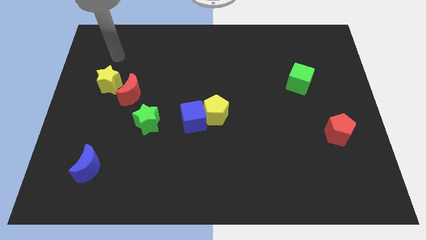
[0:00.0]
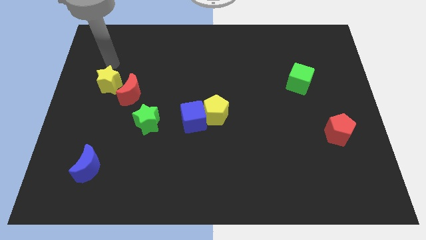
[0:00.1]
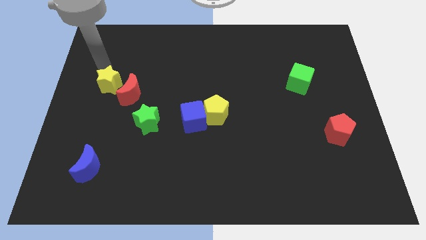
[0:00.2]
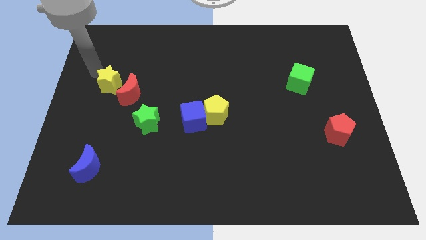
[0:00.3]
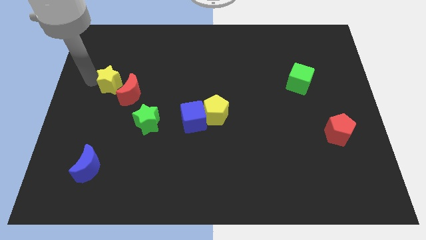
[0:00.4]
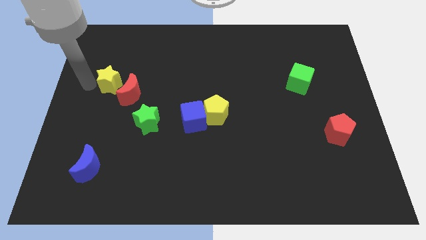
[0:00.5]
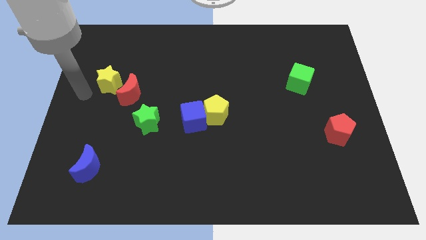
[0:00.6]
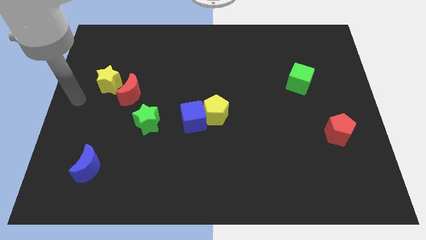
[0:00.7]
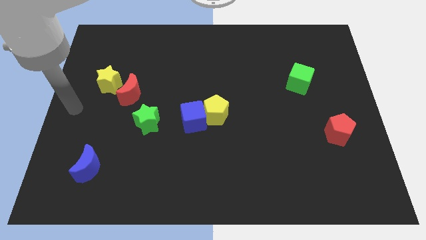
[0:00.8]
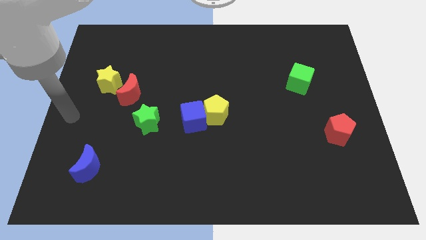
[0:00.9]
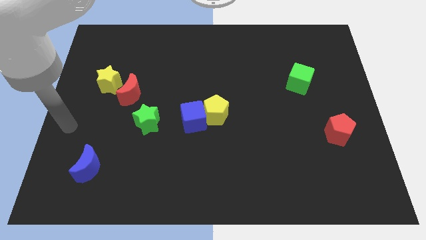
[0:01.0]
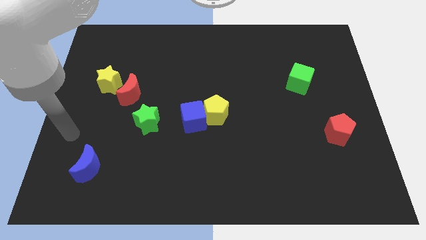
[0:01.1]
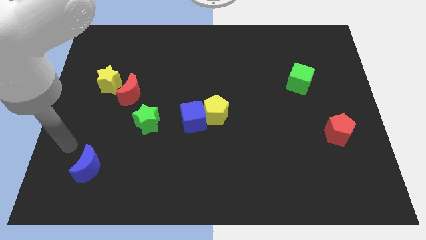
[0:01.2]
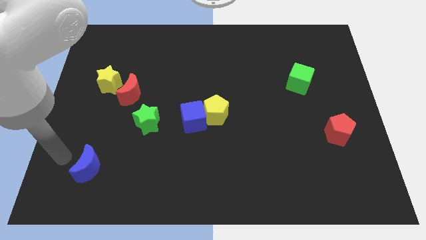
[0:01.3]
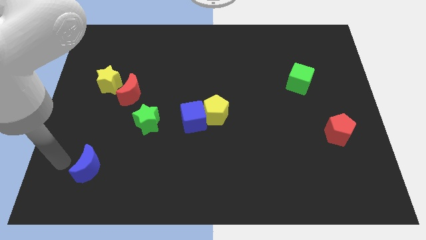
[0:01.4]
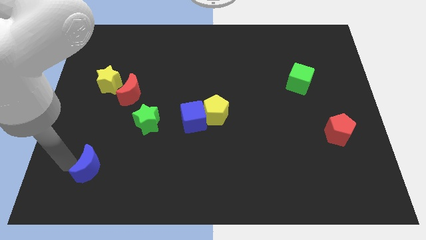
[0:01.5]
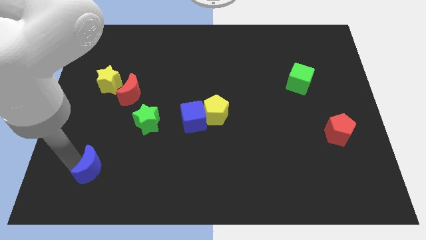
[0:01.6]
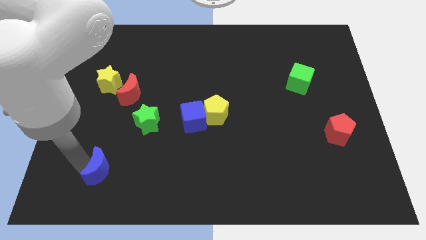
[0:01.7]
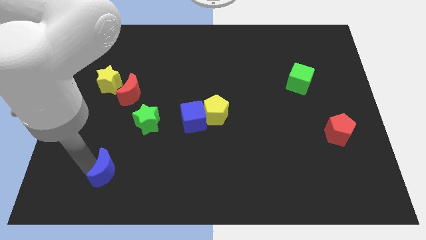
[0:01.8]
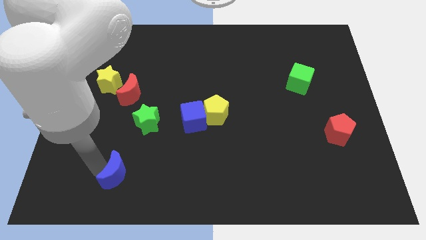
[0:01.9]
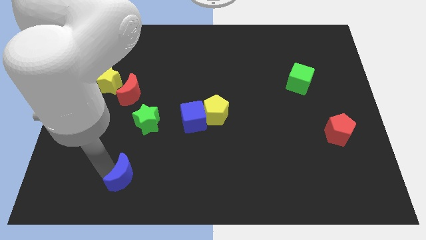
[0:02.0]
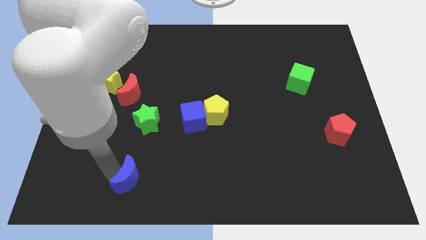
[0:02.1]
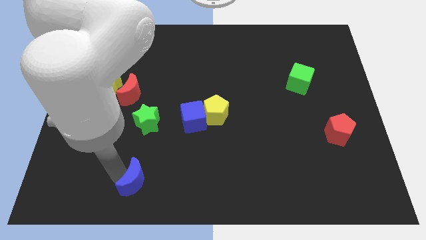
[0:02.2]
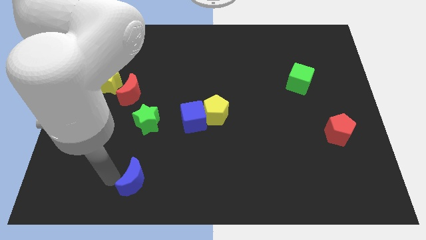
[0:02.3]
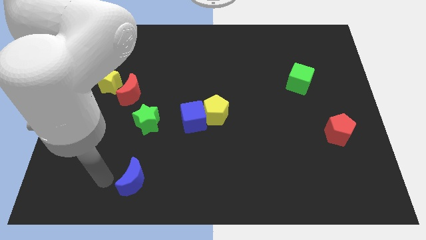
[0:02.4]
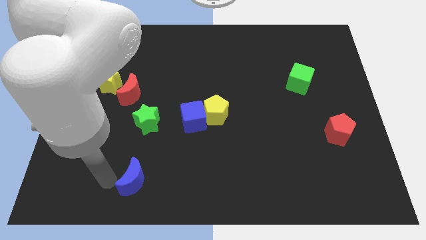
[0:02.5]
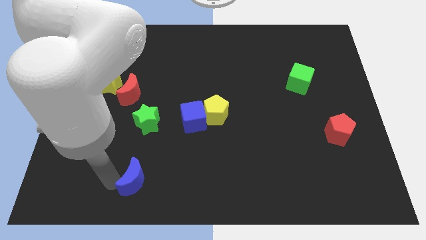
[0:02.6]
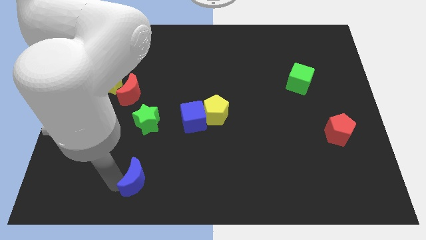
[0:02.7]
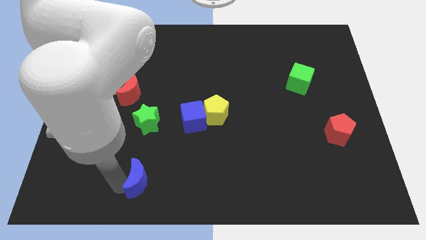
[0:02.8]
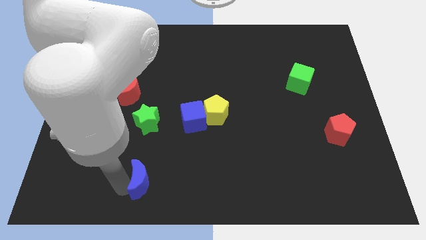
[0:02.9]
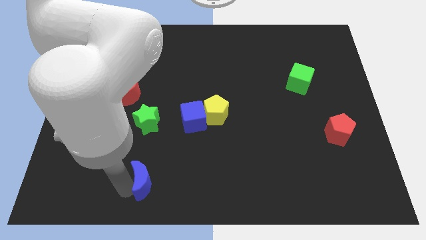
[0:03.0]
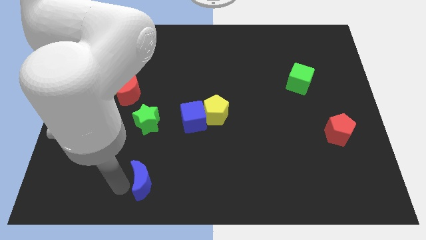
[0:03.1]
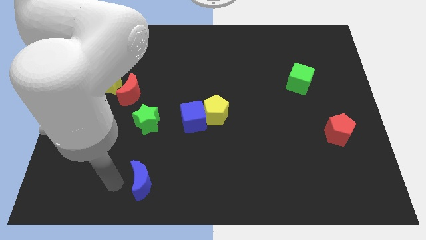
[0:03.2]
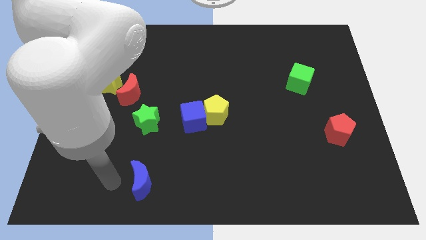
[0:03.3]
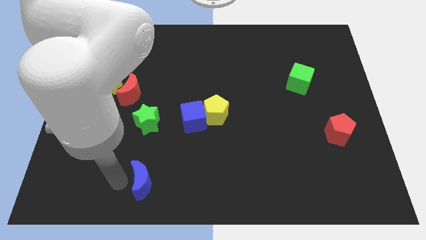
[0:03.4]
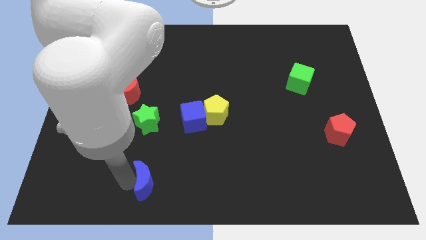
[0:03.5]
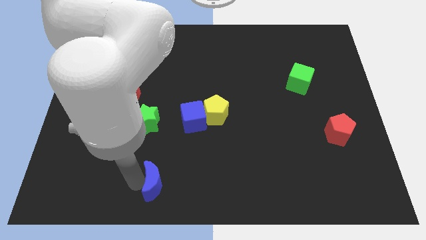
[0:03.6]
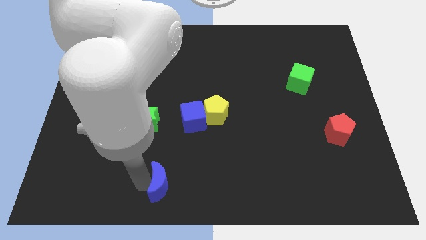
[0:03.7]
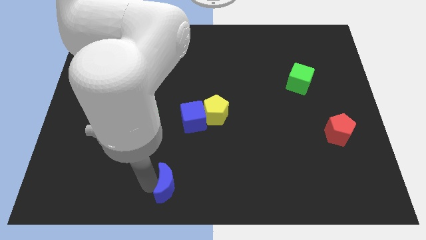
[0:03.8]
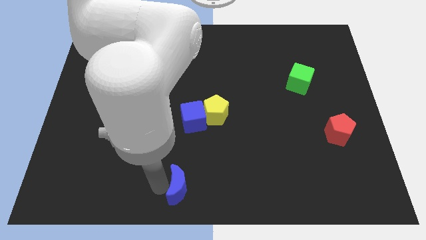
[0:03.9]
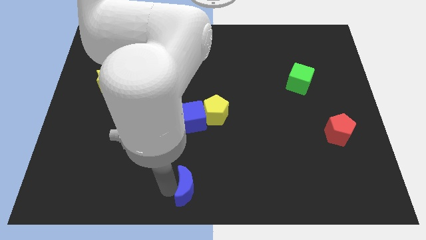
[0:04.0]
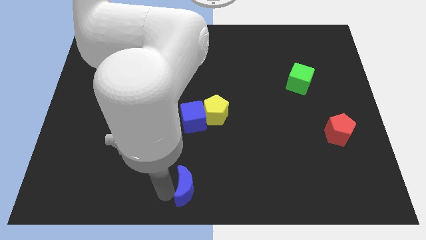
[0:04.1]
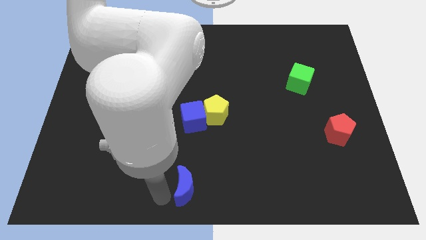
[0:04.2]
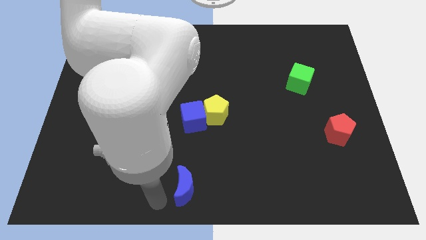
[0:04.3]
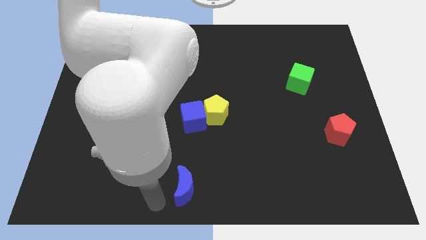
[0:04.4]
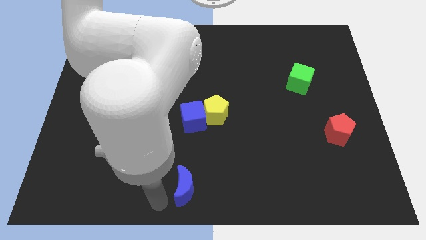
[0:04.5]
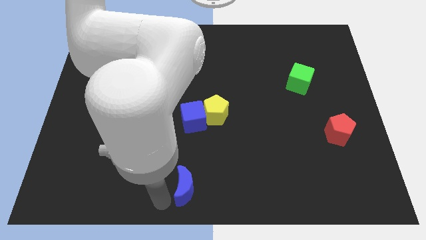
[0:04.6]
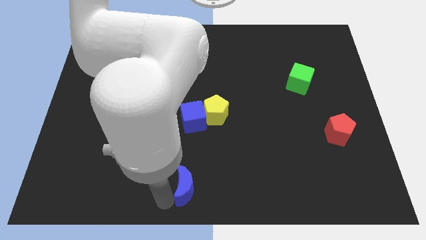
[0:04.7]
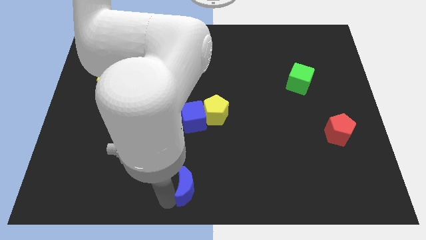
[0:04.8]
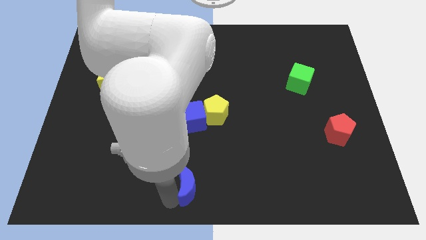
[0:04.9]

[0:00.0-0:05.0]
slide the blue moon right

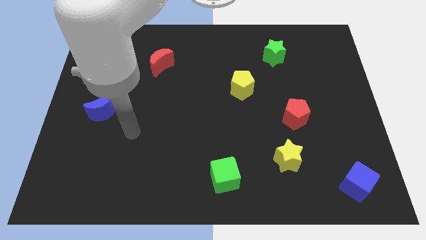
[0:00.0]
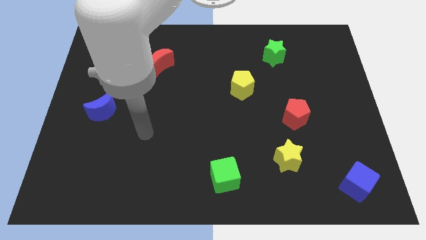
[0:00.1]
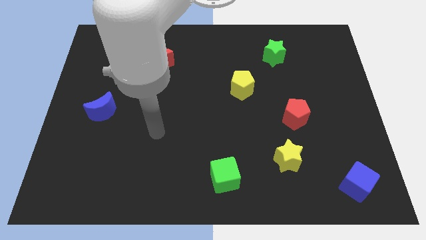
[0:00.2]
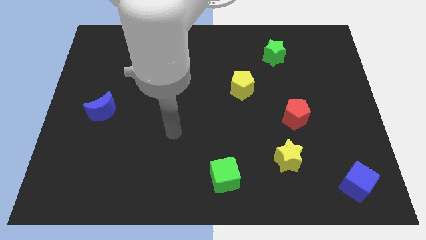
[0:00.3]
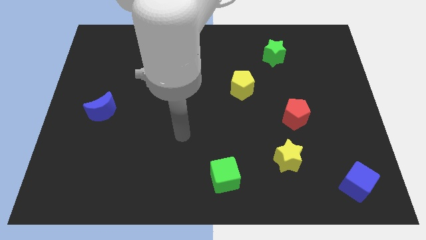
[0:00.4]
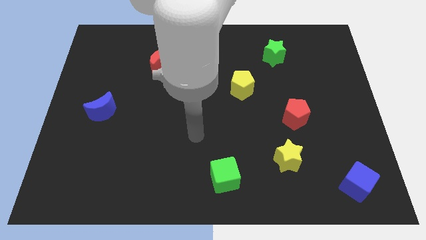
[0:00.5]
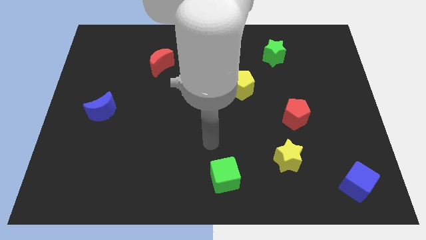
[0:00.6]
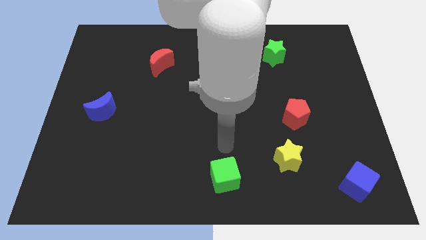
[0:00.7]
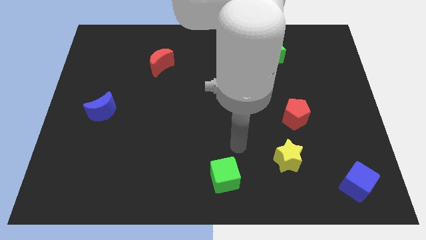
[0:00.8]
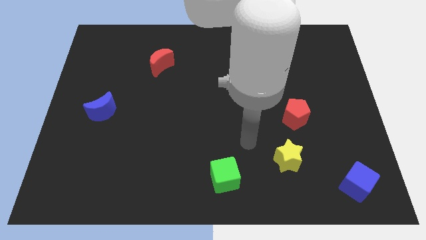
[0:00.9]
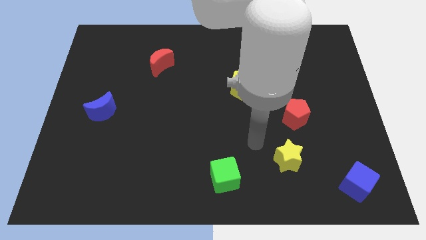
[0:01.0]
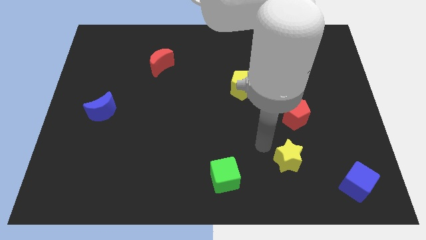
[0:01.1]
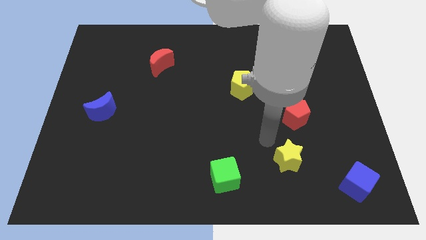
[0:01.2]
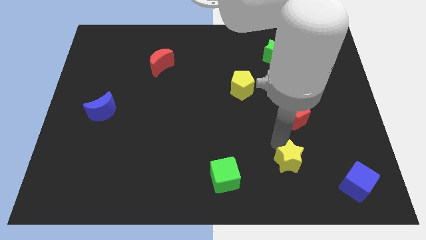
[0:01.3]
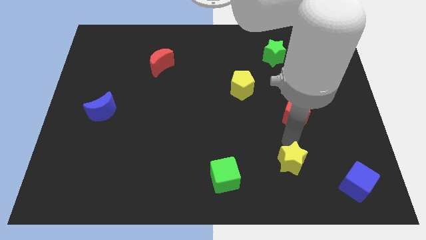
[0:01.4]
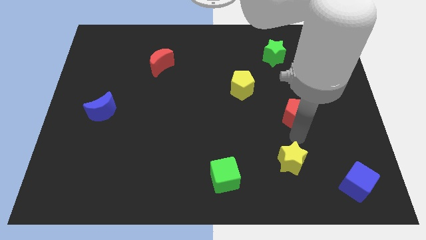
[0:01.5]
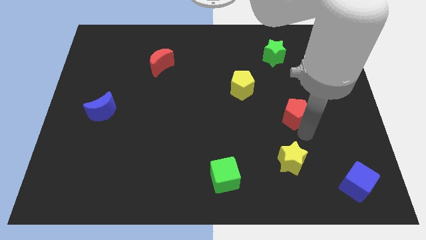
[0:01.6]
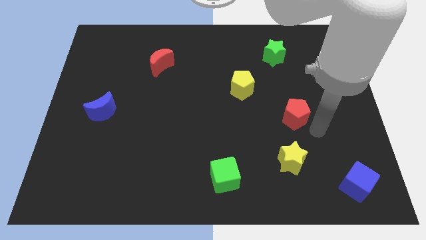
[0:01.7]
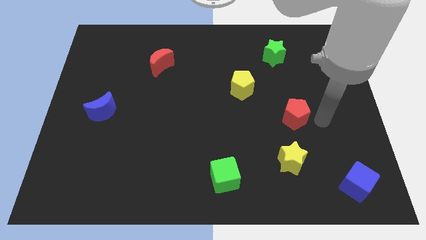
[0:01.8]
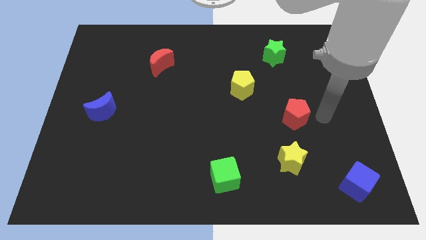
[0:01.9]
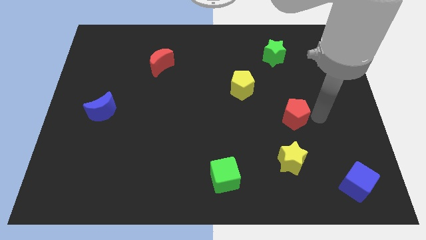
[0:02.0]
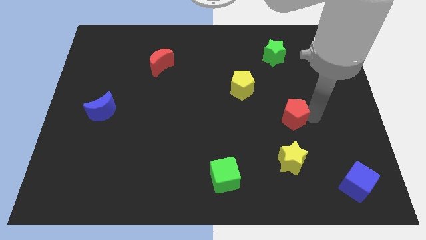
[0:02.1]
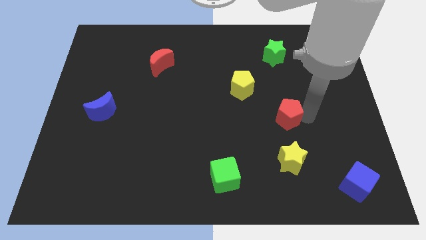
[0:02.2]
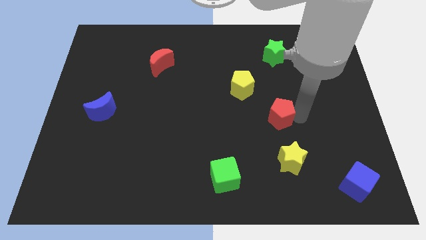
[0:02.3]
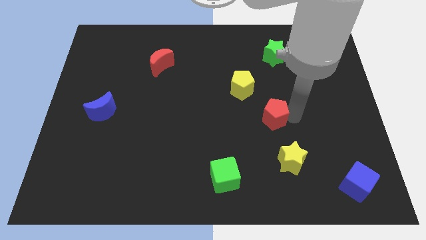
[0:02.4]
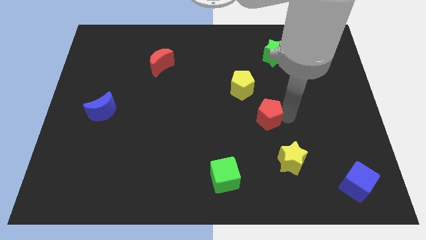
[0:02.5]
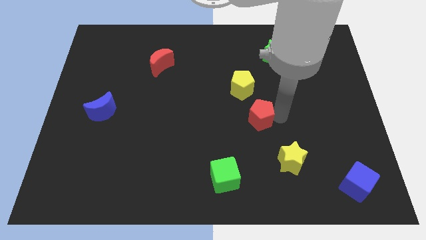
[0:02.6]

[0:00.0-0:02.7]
slightly slide the red pentagon left

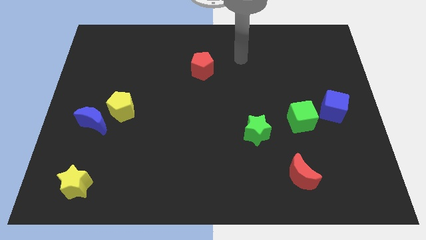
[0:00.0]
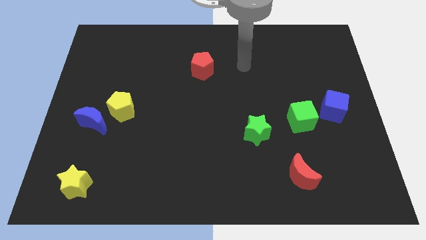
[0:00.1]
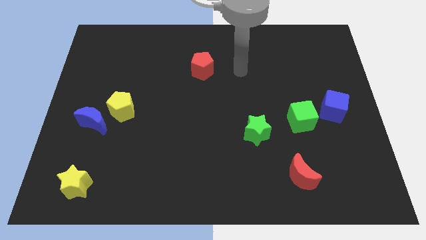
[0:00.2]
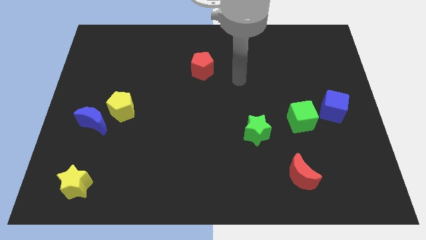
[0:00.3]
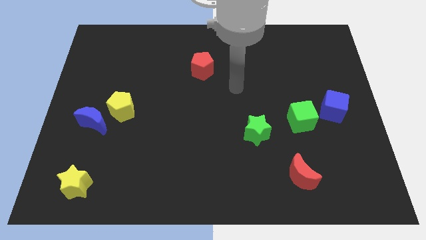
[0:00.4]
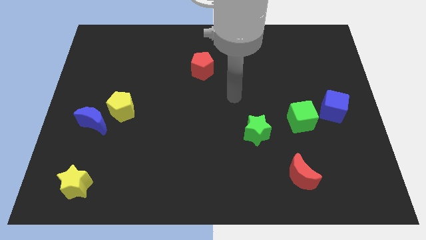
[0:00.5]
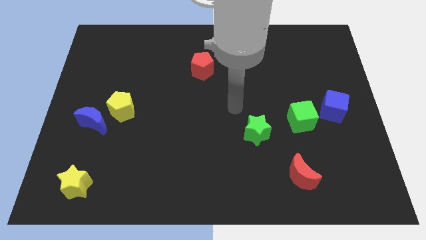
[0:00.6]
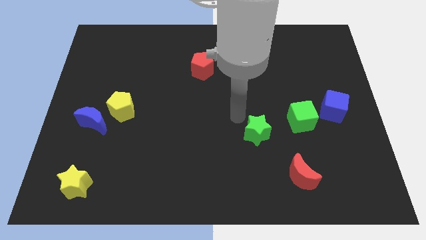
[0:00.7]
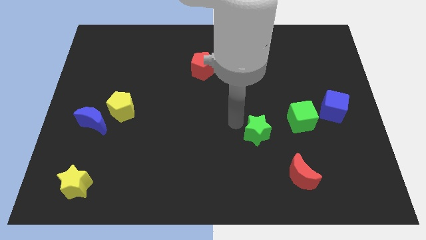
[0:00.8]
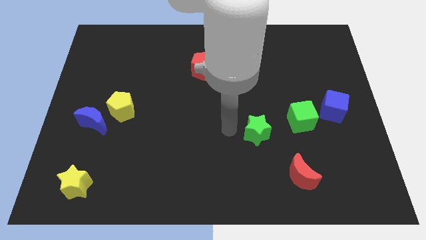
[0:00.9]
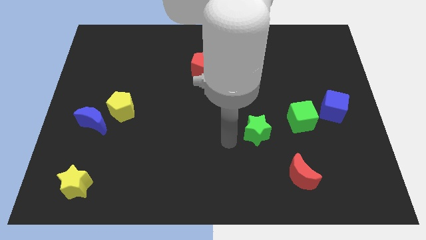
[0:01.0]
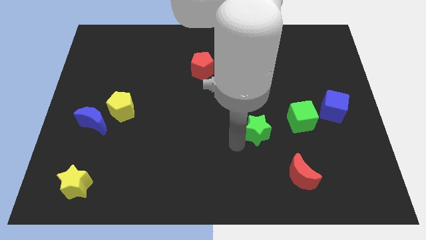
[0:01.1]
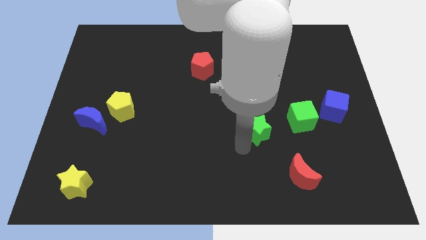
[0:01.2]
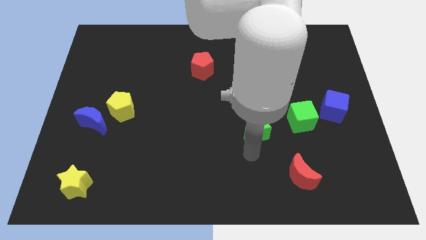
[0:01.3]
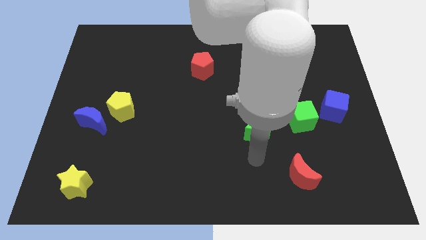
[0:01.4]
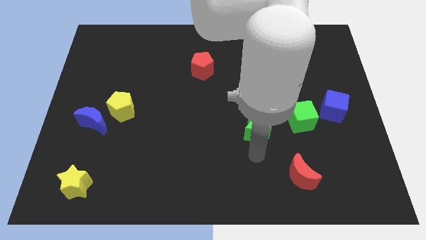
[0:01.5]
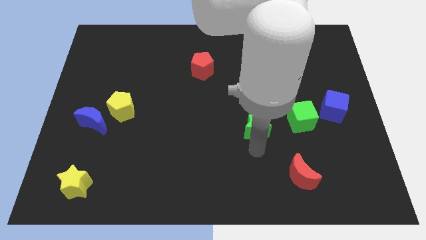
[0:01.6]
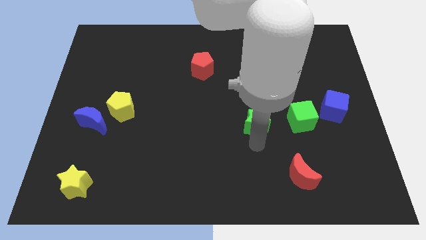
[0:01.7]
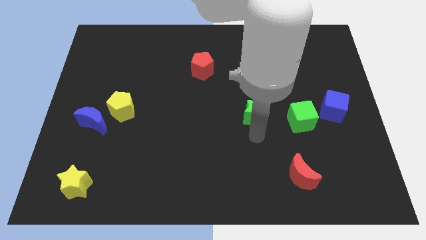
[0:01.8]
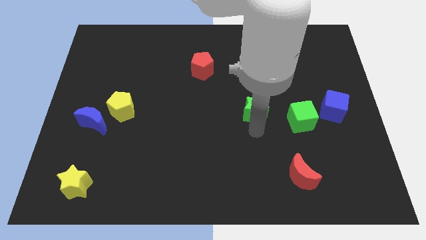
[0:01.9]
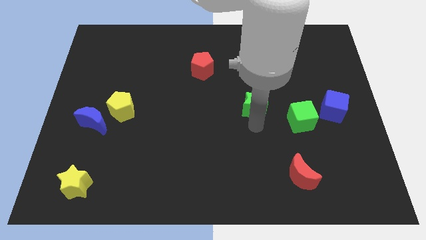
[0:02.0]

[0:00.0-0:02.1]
slightly slide the green star upwards
